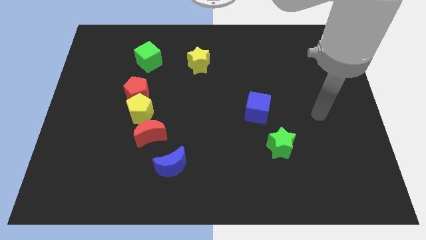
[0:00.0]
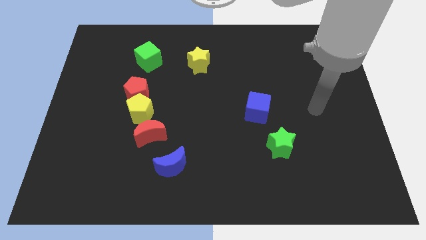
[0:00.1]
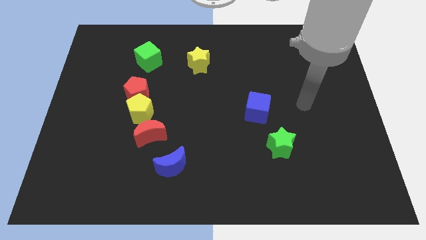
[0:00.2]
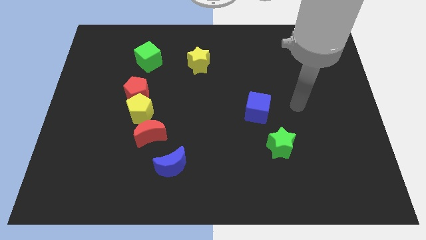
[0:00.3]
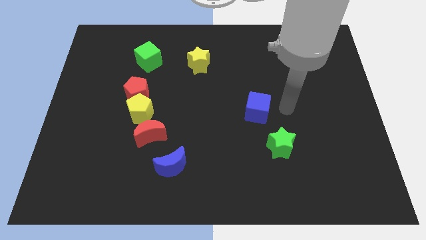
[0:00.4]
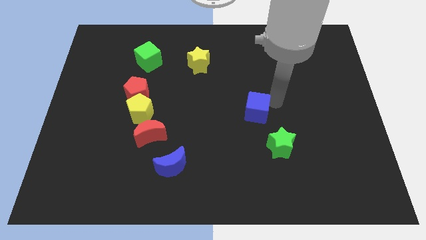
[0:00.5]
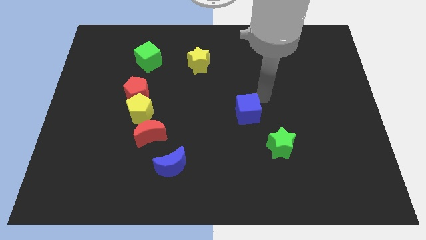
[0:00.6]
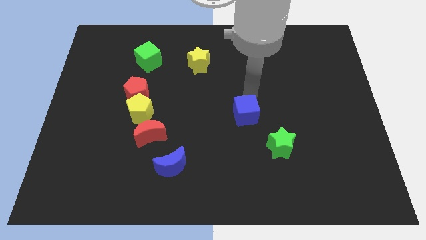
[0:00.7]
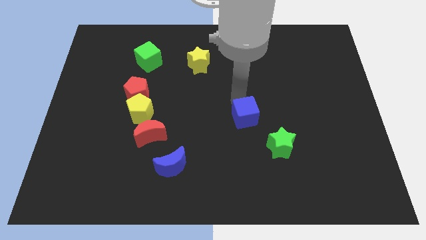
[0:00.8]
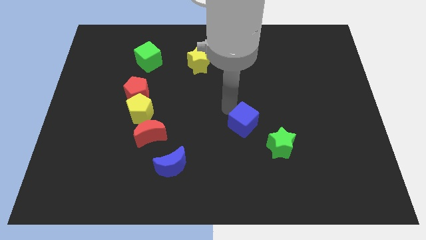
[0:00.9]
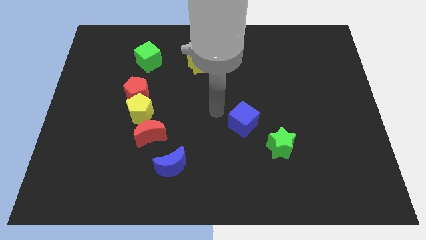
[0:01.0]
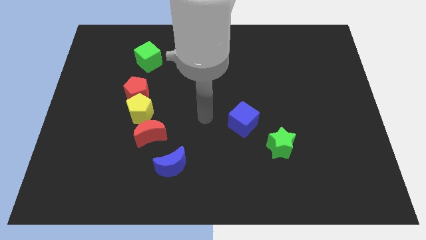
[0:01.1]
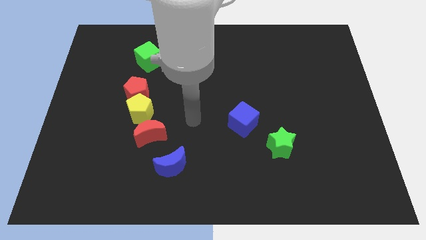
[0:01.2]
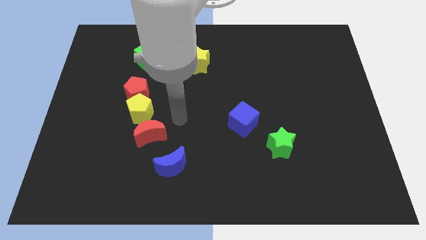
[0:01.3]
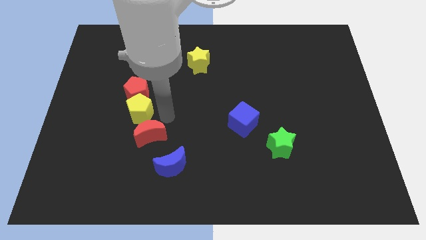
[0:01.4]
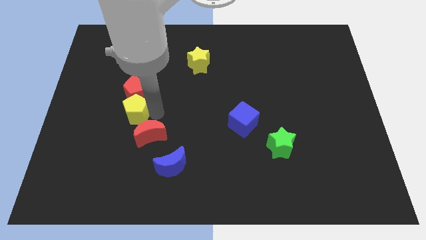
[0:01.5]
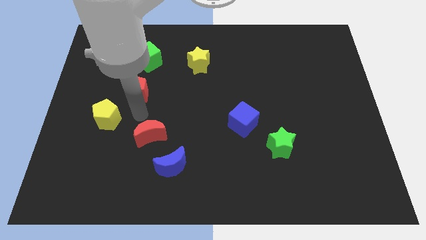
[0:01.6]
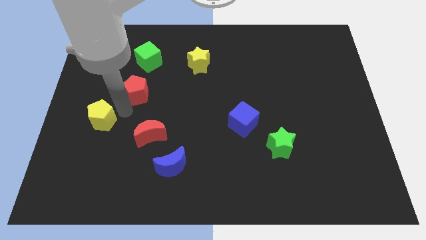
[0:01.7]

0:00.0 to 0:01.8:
pull the red pentagon apart from the yellow pentagon

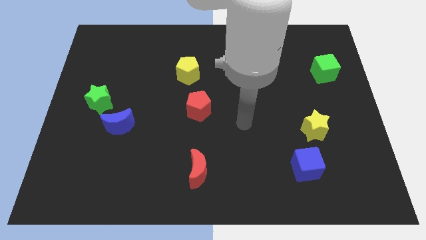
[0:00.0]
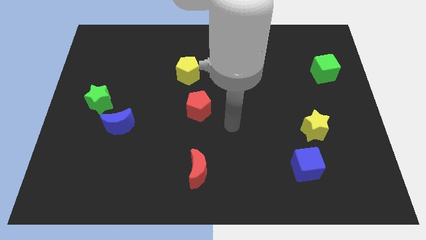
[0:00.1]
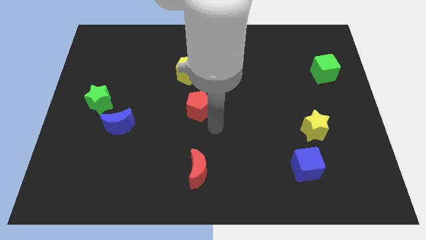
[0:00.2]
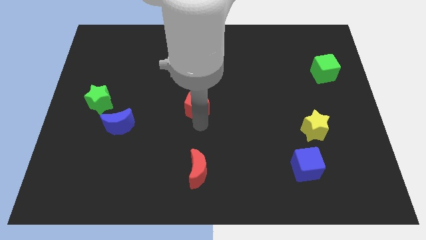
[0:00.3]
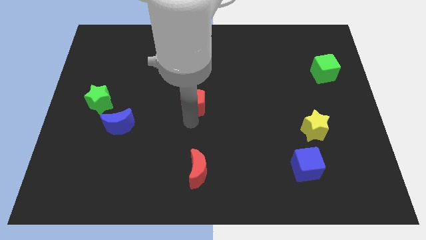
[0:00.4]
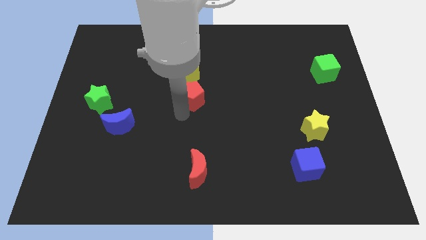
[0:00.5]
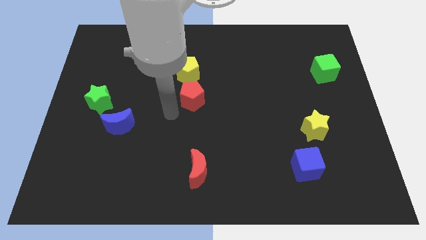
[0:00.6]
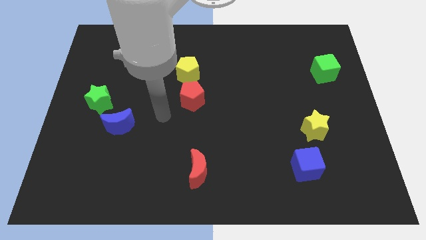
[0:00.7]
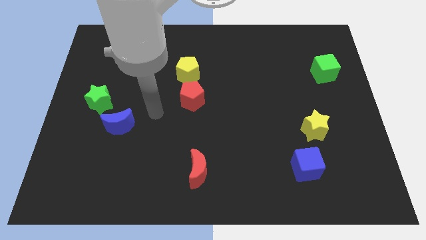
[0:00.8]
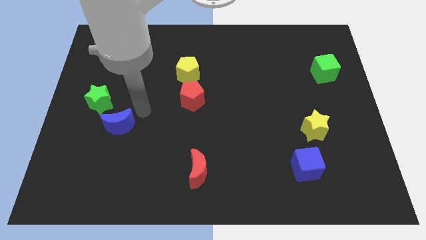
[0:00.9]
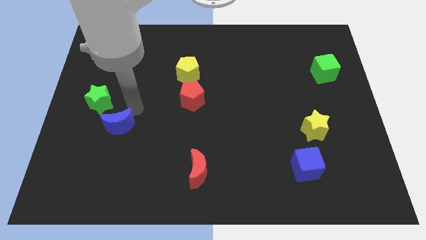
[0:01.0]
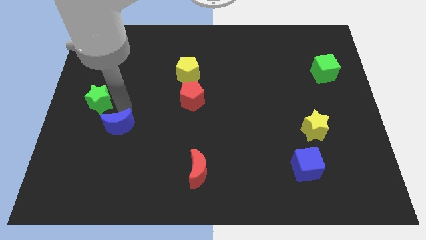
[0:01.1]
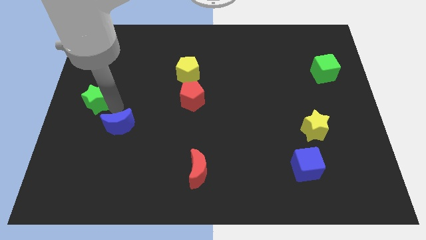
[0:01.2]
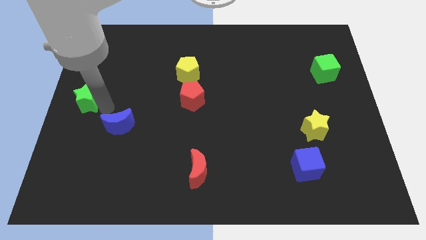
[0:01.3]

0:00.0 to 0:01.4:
move the blue moon away from the green star

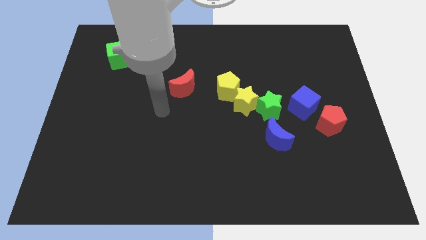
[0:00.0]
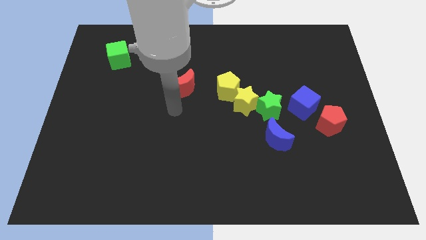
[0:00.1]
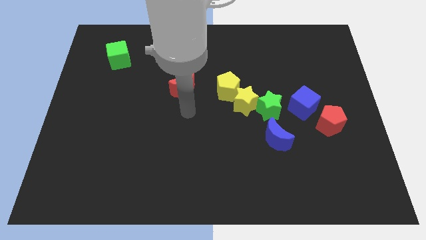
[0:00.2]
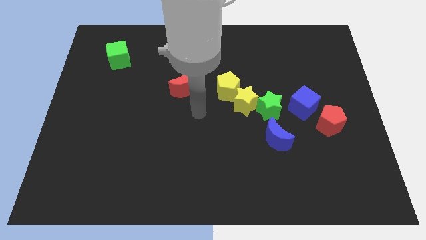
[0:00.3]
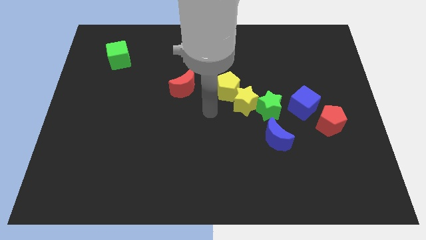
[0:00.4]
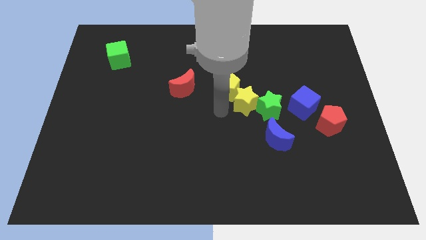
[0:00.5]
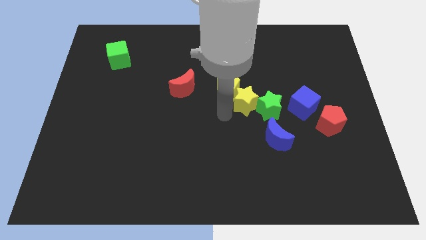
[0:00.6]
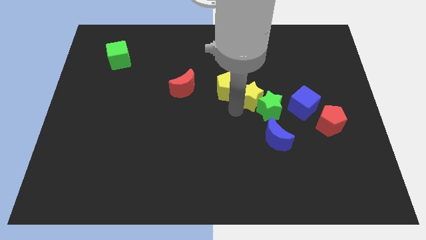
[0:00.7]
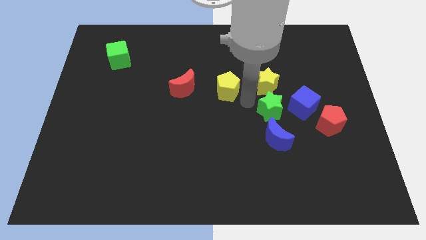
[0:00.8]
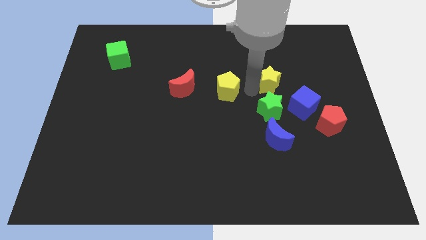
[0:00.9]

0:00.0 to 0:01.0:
separate the yellow pentagon from the yellow star

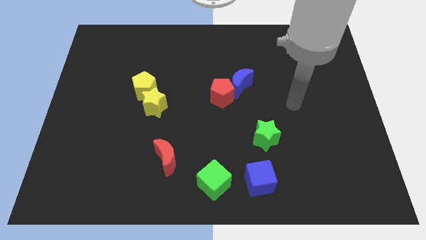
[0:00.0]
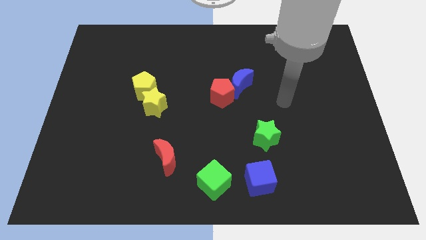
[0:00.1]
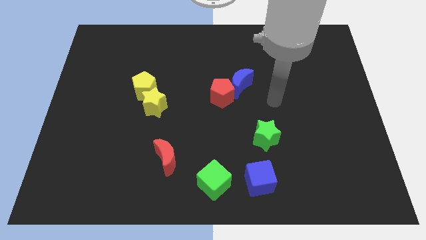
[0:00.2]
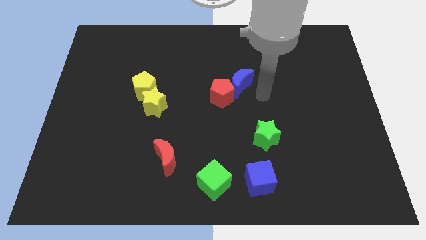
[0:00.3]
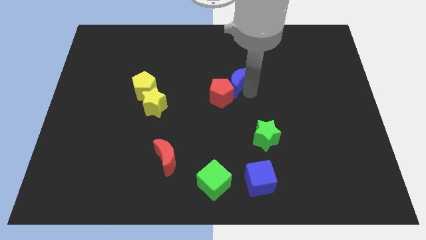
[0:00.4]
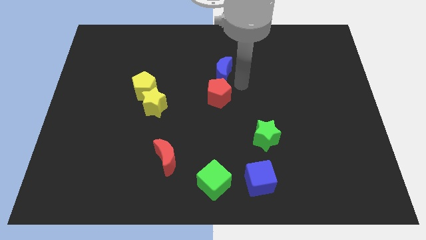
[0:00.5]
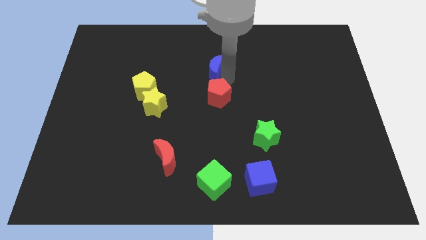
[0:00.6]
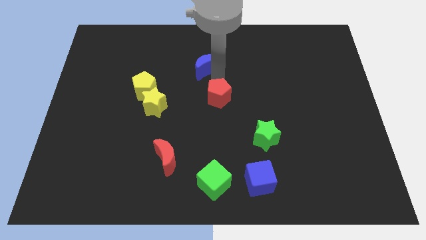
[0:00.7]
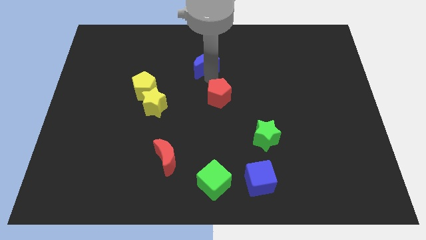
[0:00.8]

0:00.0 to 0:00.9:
separate the red pentagon from the blue moon

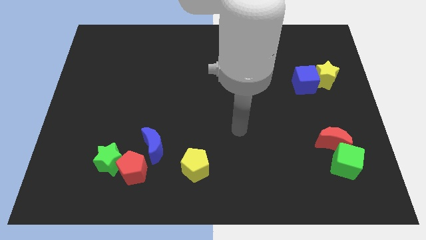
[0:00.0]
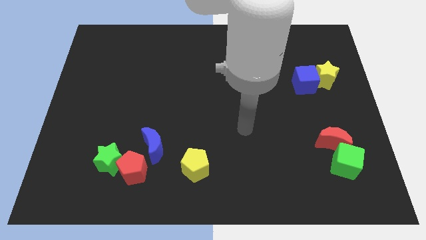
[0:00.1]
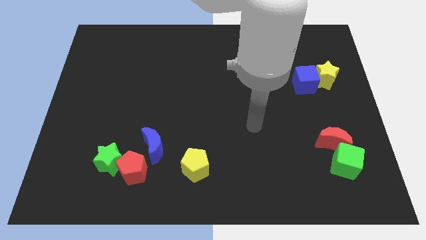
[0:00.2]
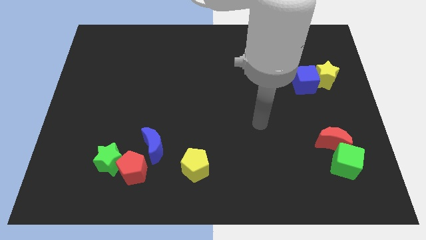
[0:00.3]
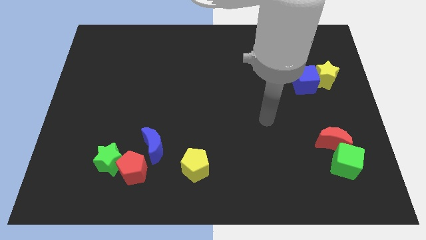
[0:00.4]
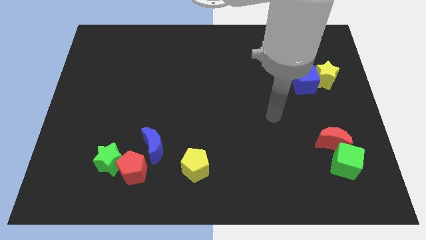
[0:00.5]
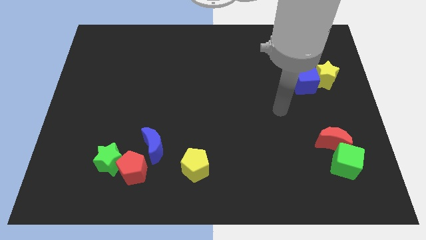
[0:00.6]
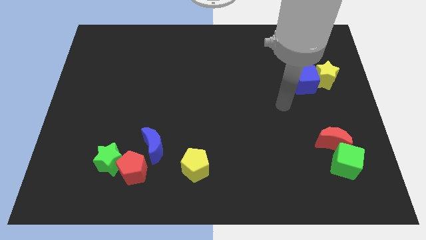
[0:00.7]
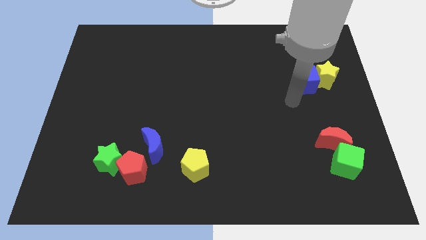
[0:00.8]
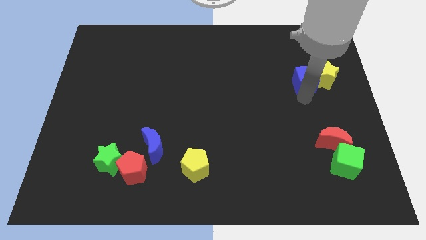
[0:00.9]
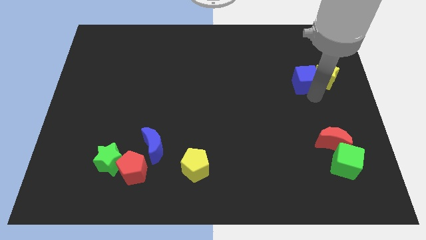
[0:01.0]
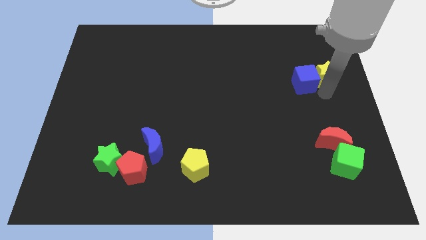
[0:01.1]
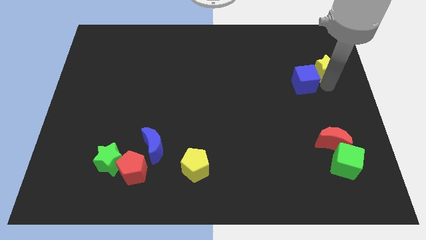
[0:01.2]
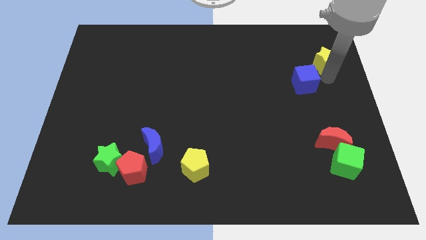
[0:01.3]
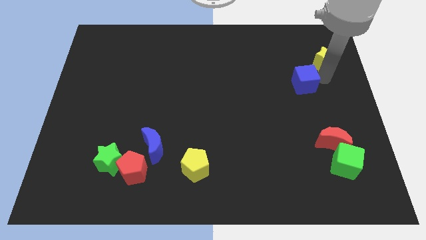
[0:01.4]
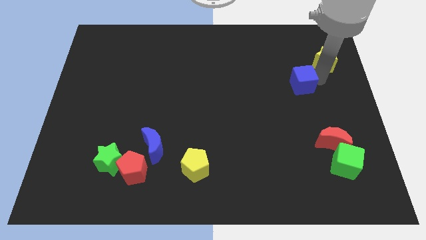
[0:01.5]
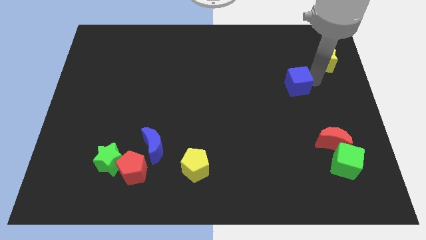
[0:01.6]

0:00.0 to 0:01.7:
move the blue cube away from the yellow star

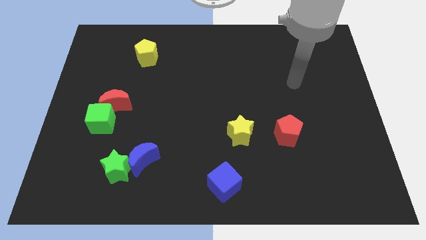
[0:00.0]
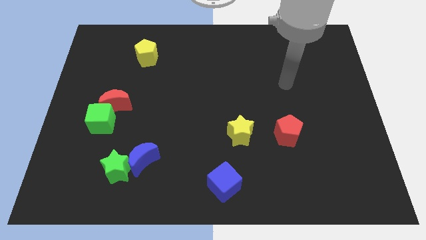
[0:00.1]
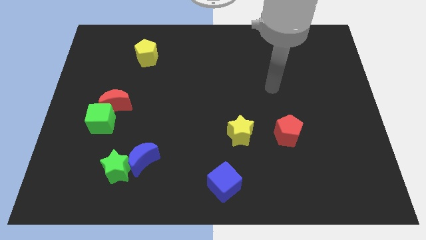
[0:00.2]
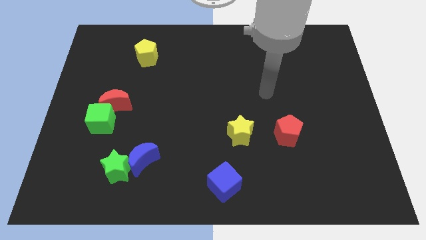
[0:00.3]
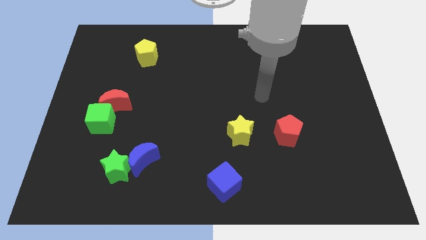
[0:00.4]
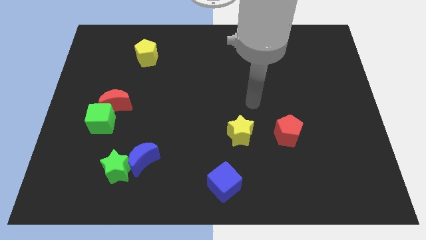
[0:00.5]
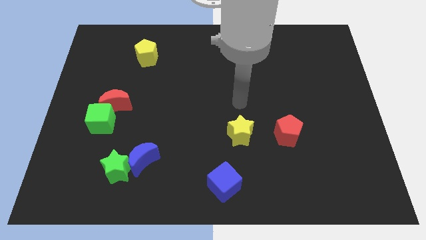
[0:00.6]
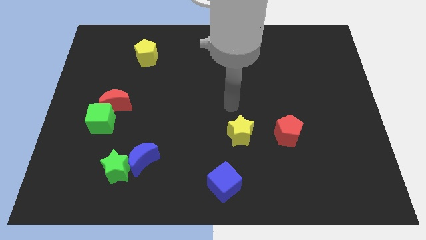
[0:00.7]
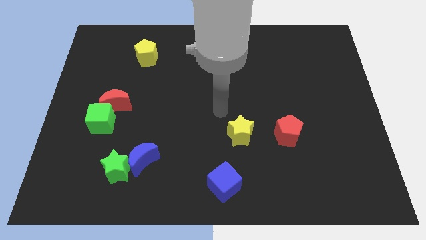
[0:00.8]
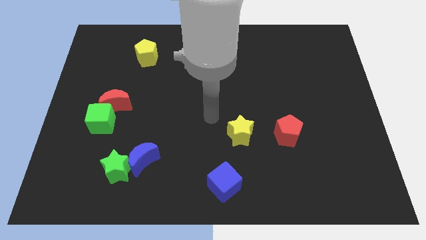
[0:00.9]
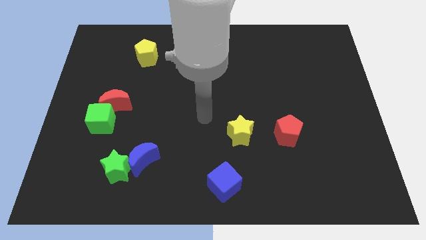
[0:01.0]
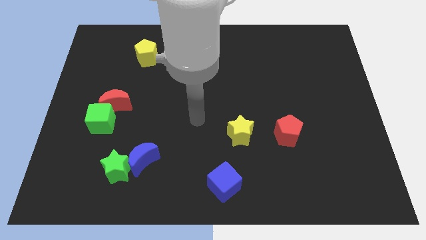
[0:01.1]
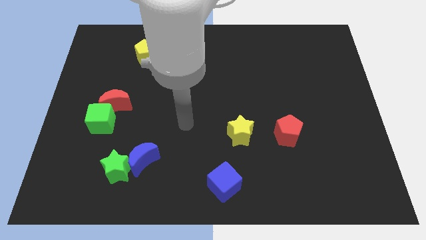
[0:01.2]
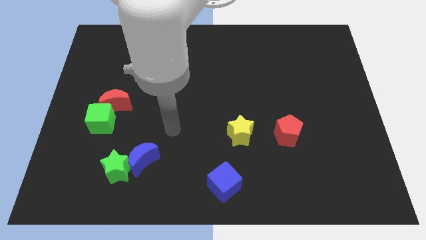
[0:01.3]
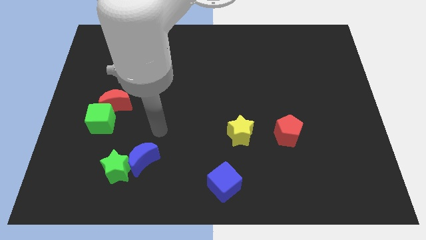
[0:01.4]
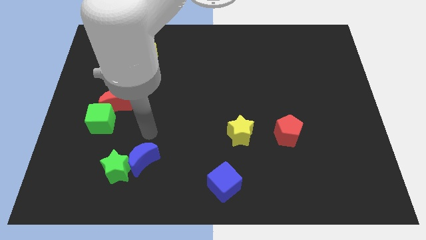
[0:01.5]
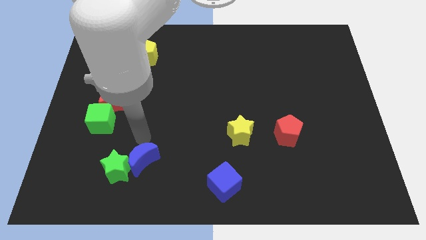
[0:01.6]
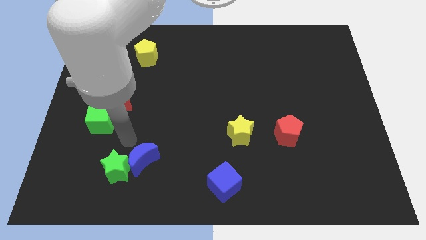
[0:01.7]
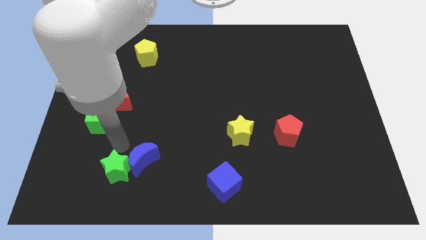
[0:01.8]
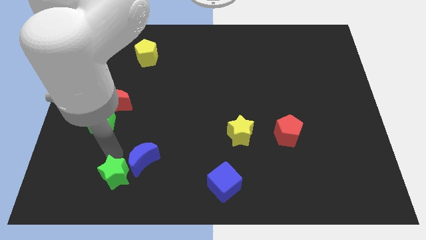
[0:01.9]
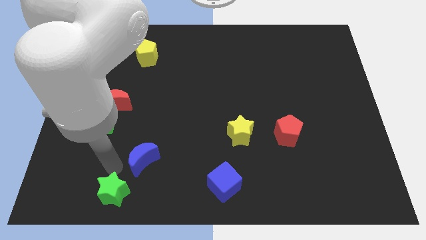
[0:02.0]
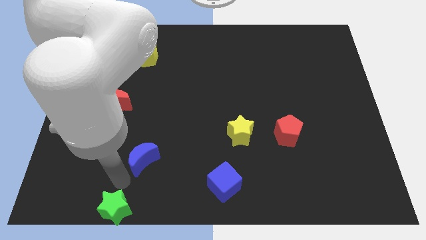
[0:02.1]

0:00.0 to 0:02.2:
separate the blue moon from the green star

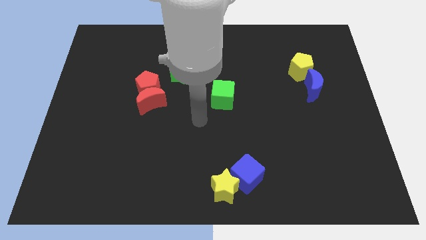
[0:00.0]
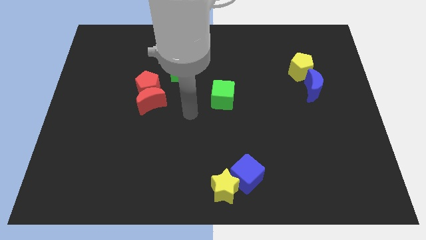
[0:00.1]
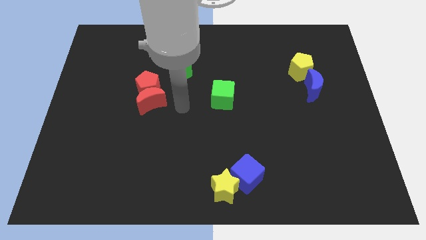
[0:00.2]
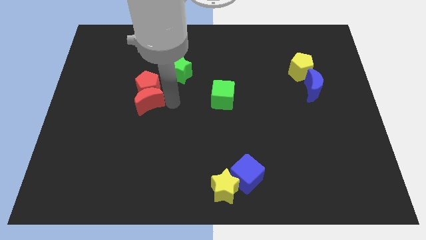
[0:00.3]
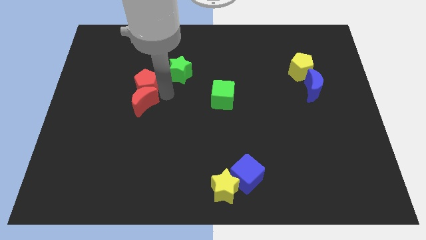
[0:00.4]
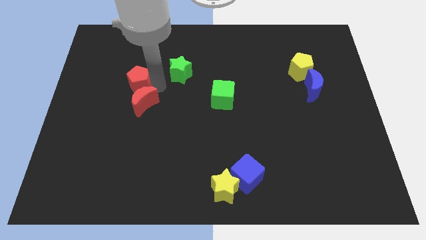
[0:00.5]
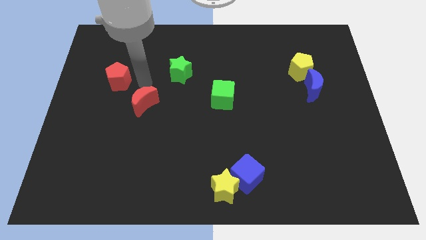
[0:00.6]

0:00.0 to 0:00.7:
separate the red moon from the red pentagon
